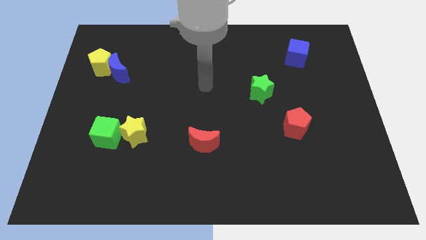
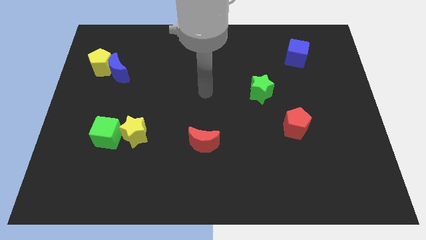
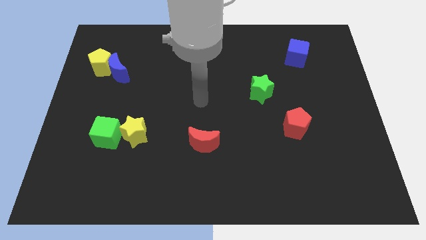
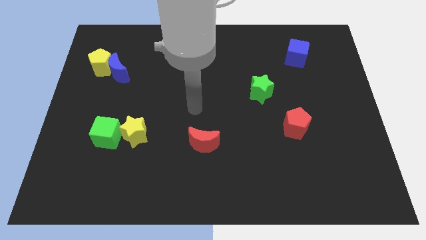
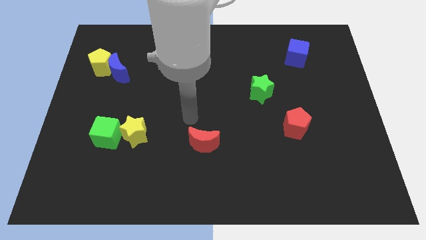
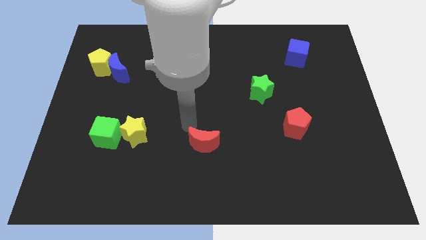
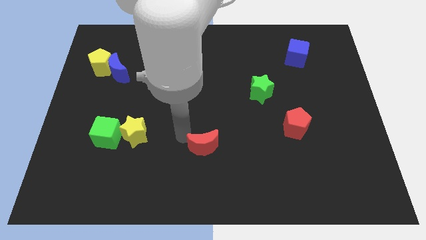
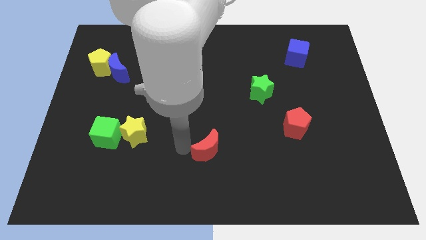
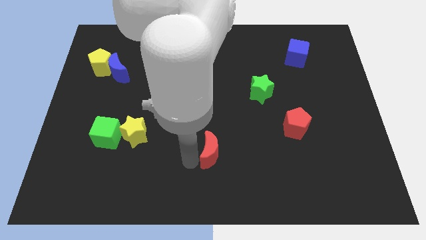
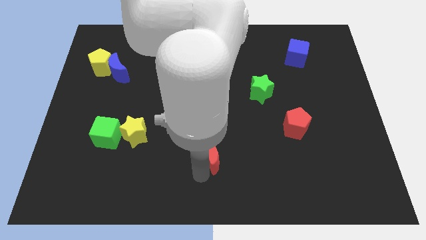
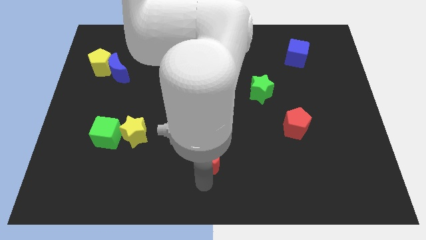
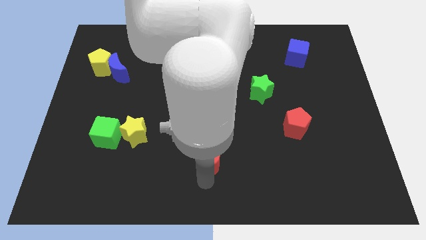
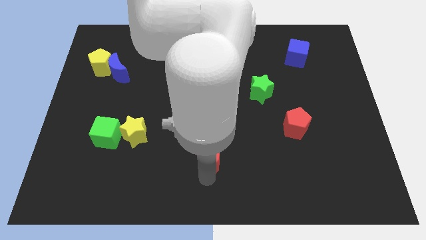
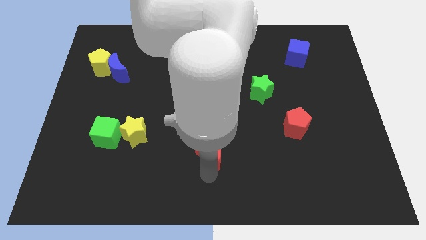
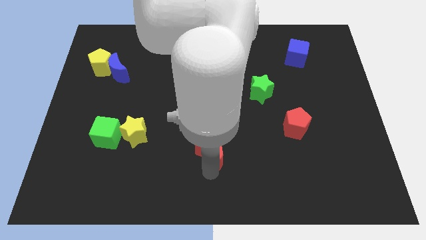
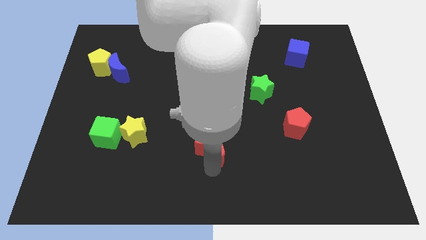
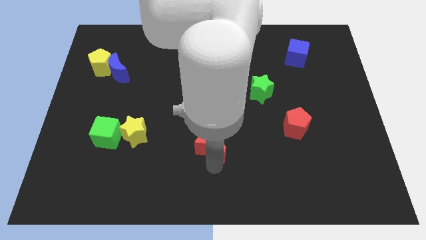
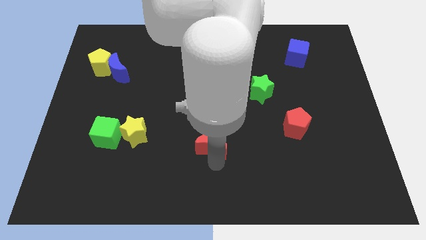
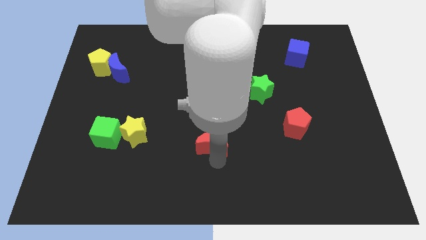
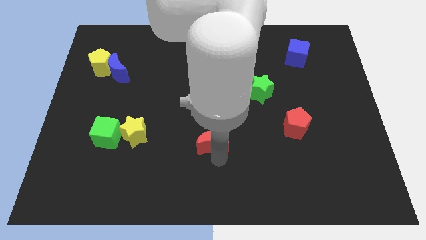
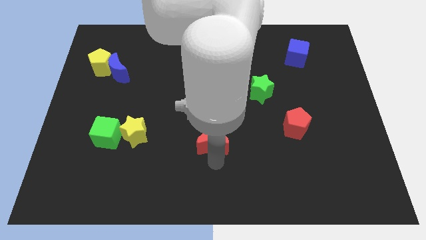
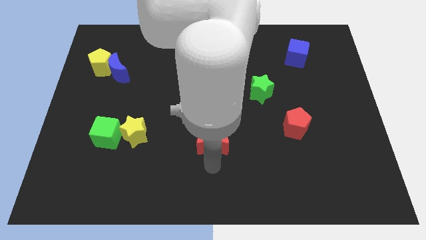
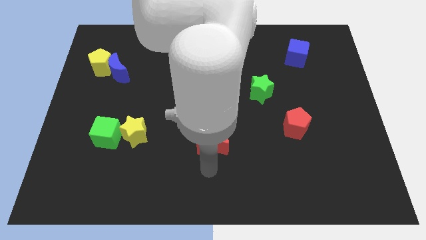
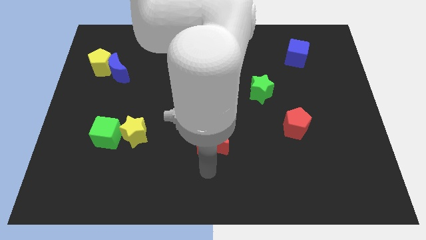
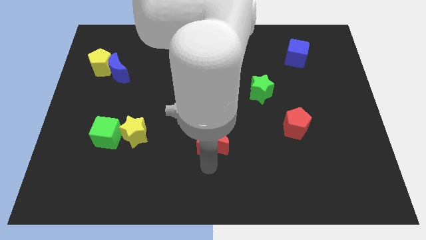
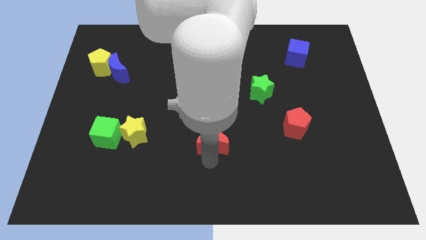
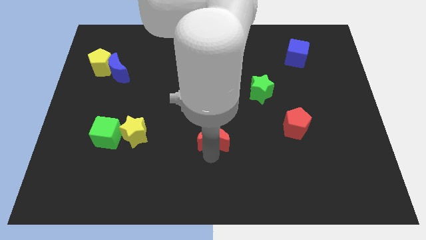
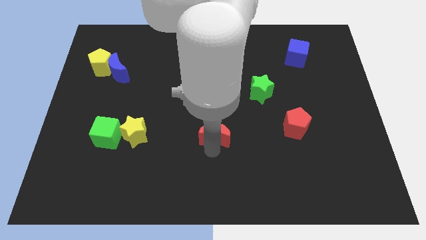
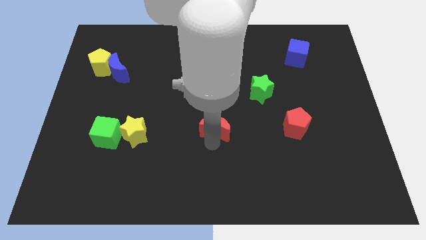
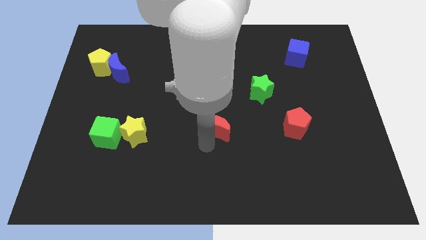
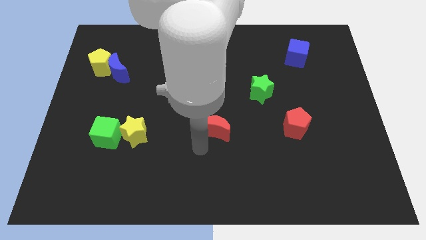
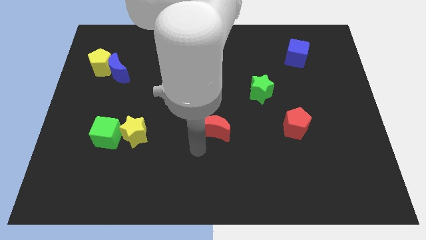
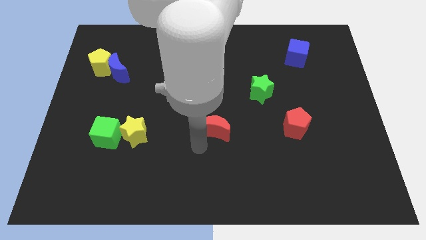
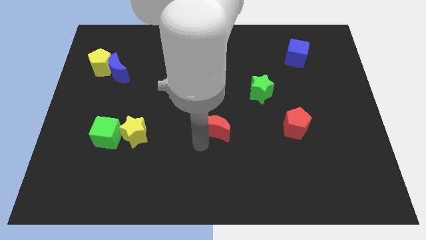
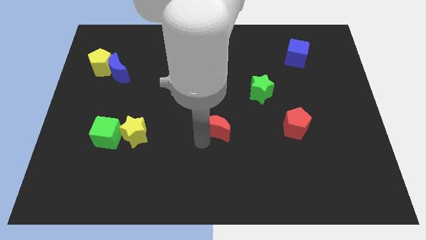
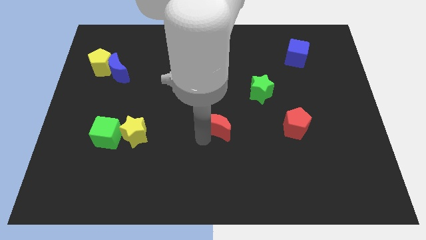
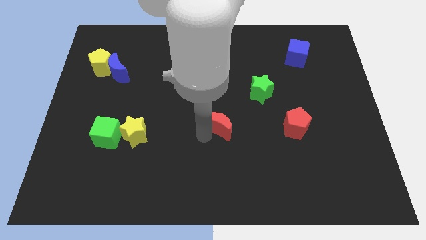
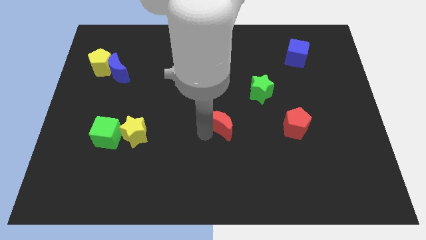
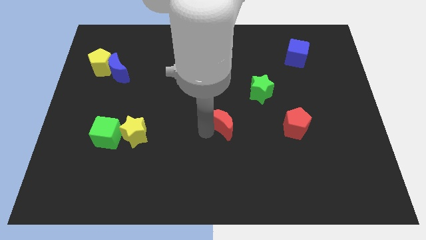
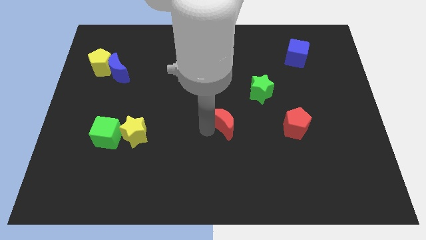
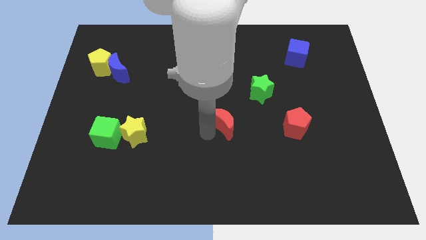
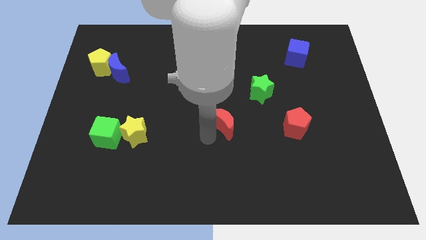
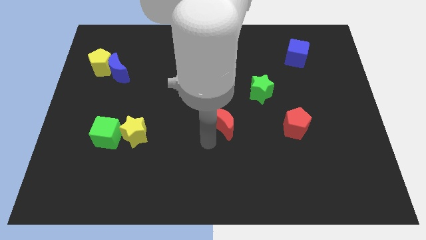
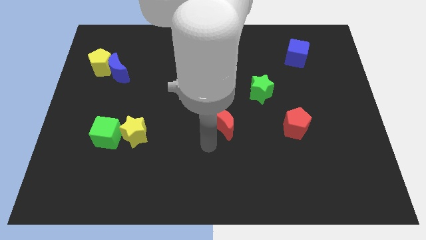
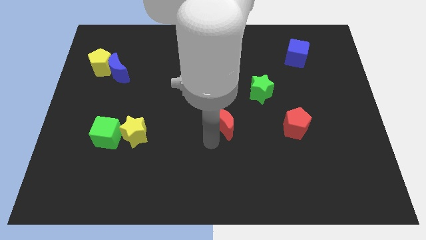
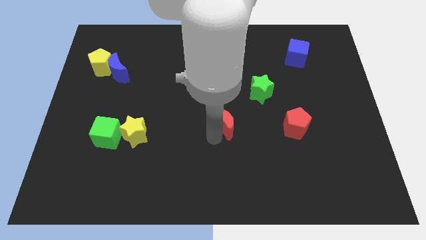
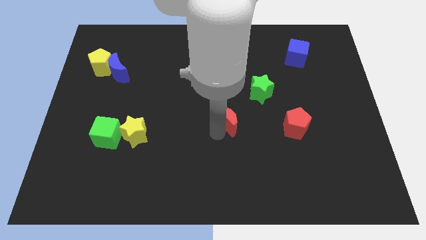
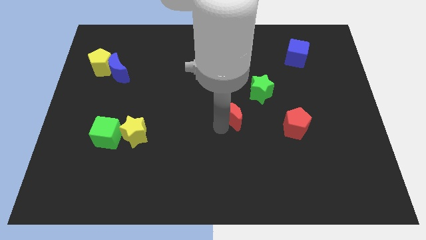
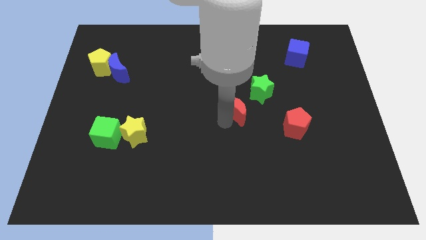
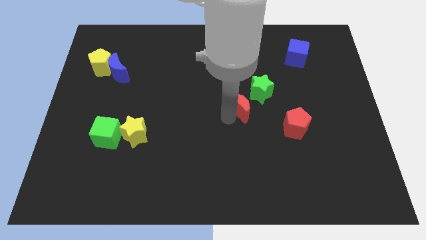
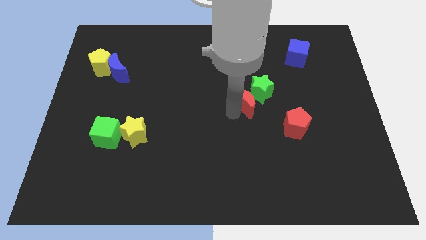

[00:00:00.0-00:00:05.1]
push the red moon close to the green star

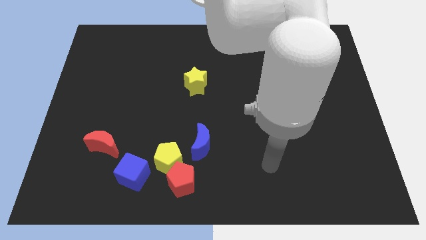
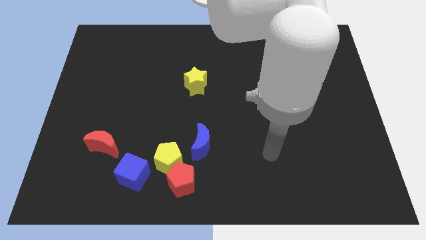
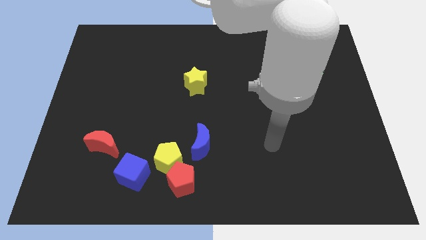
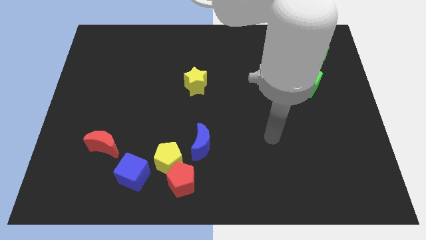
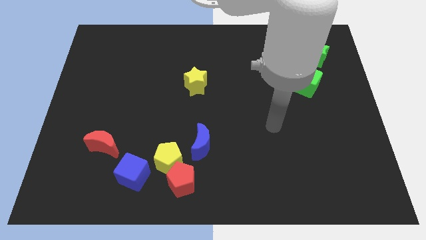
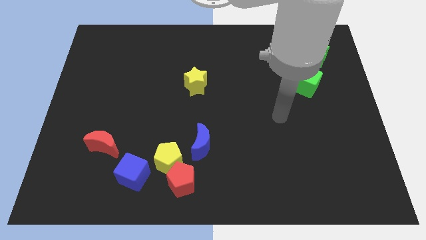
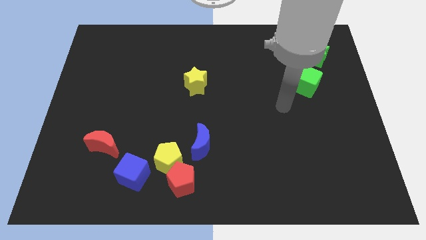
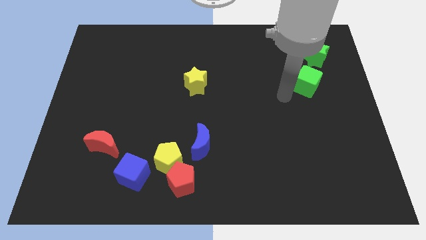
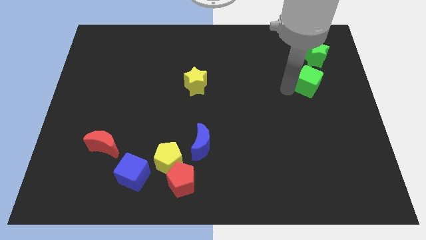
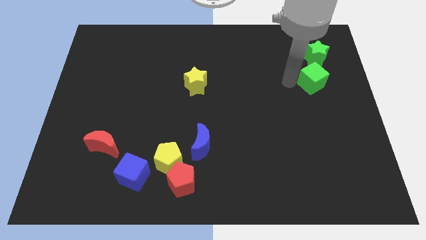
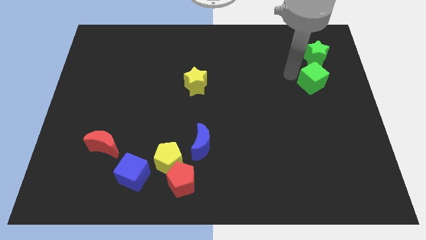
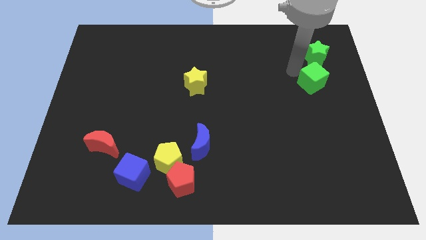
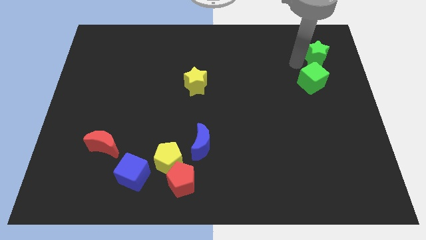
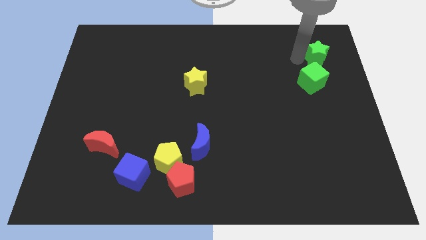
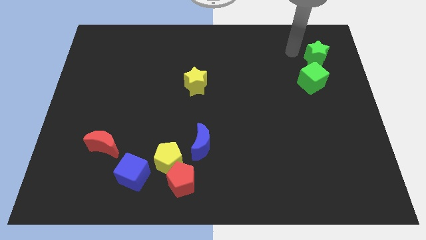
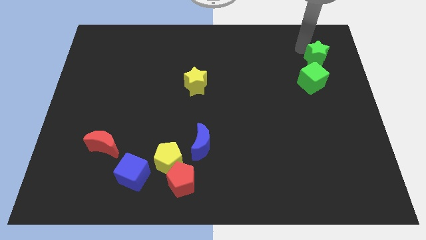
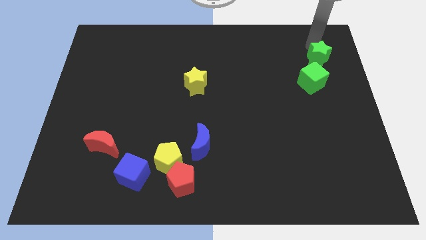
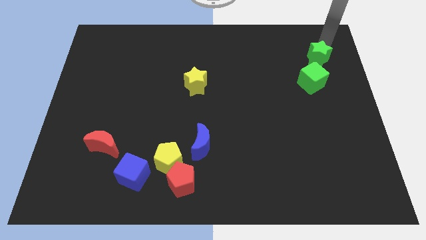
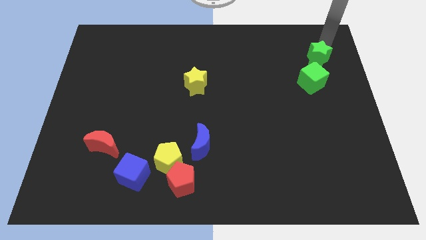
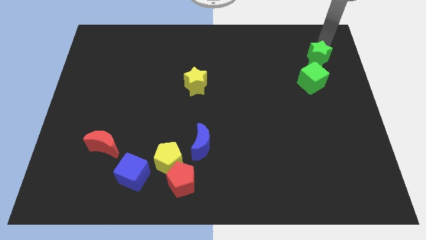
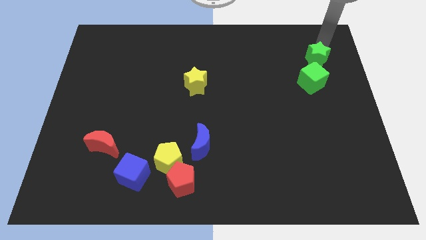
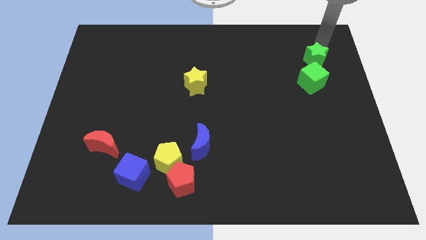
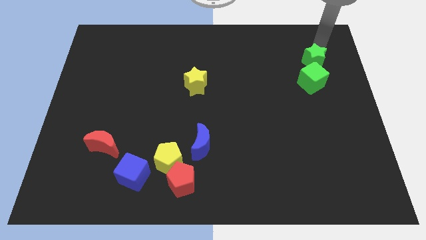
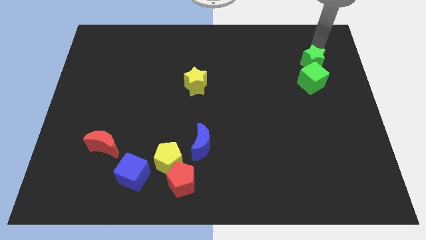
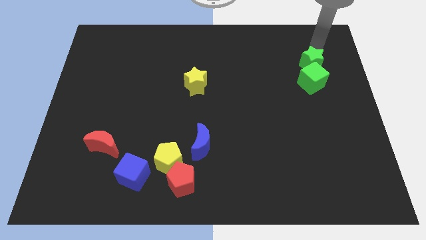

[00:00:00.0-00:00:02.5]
put the green star to the green cube
